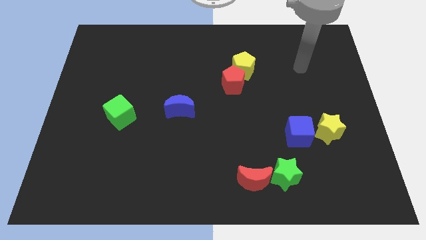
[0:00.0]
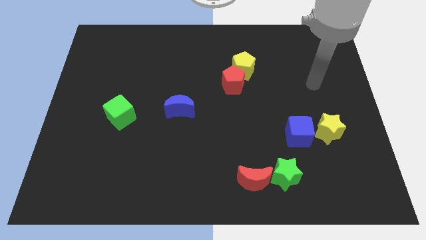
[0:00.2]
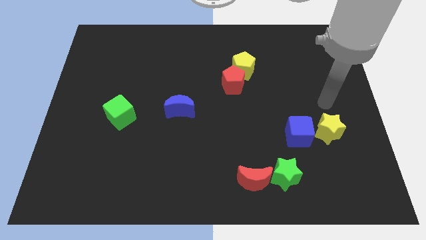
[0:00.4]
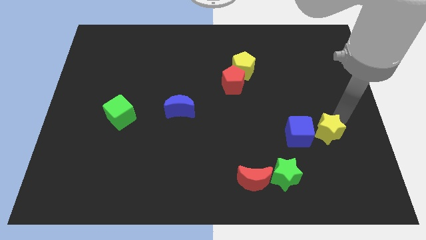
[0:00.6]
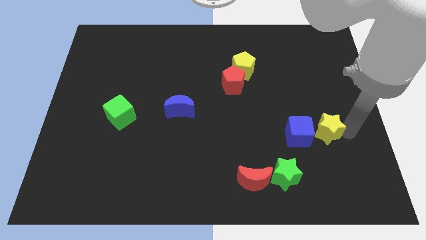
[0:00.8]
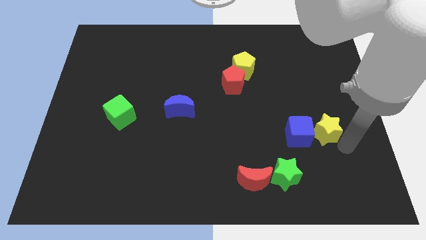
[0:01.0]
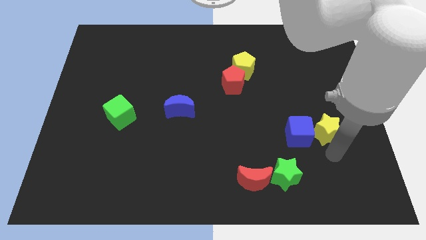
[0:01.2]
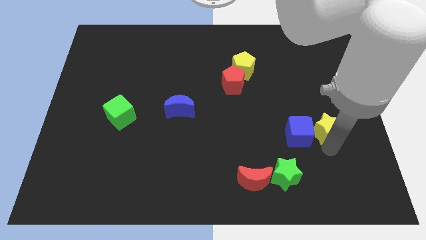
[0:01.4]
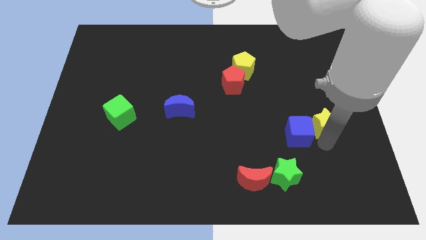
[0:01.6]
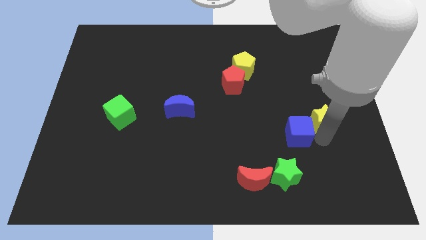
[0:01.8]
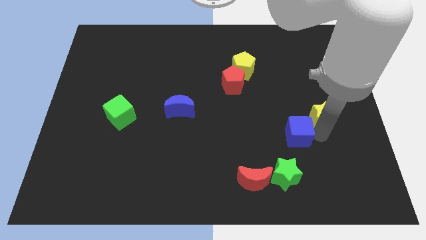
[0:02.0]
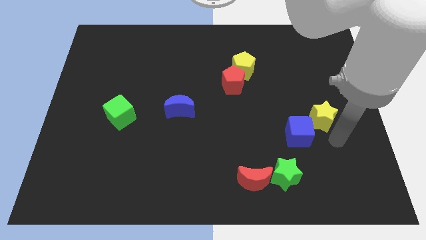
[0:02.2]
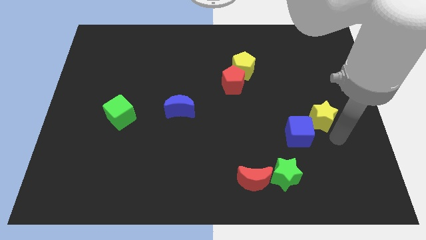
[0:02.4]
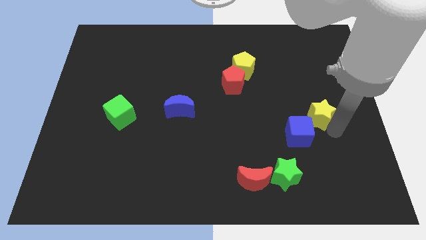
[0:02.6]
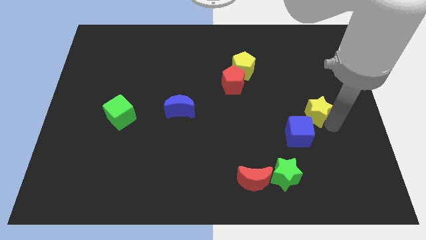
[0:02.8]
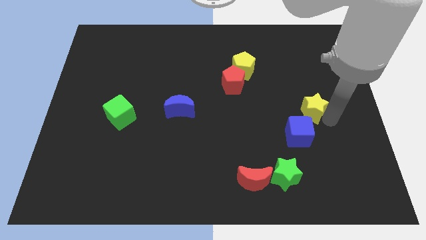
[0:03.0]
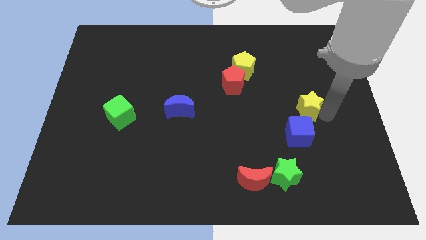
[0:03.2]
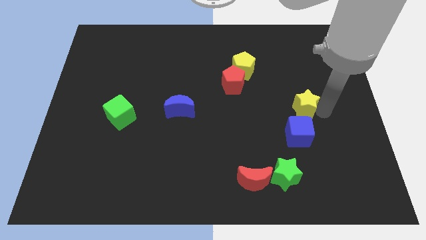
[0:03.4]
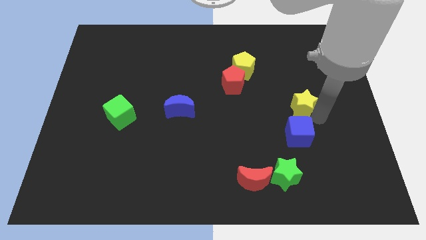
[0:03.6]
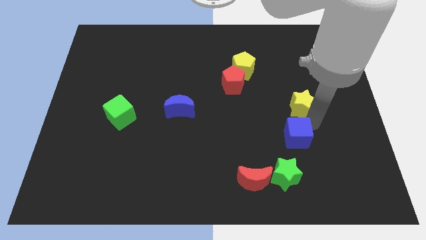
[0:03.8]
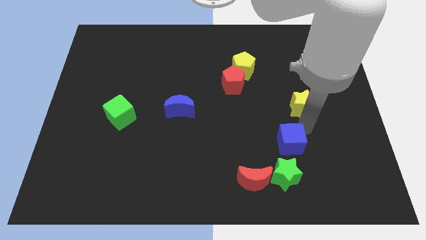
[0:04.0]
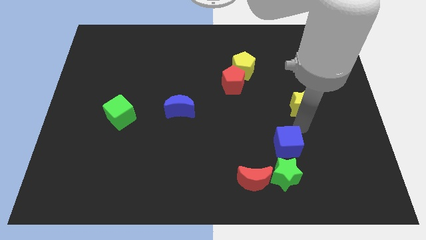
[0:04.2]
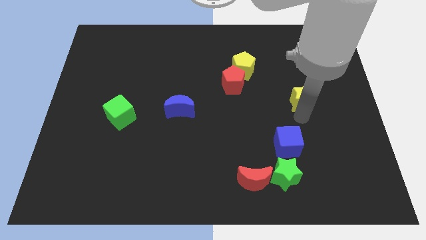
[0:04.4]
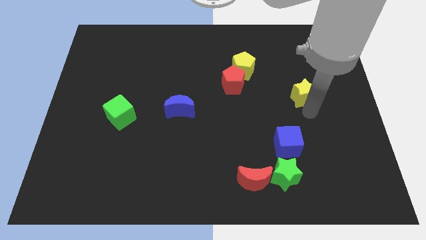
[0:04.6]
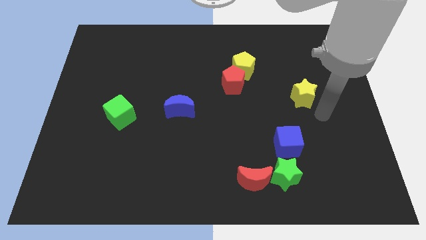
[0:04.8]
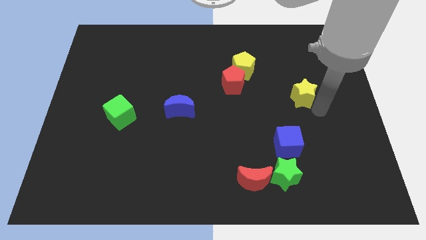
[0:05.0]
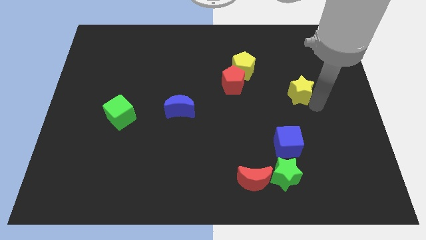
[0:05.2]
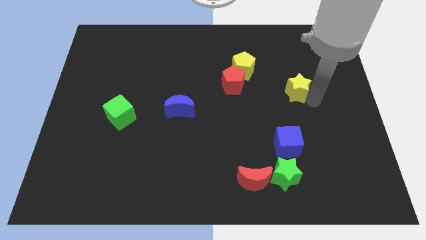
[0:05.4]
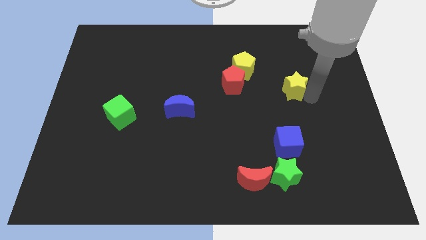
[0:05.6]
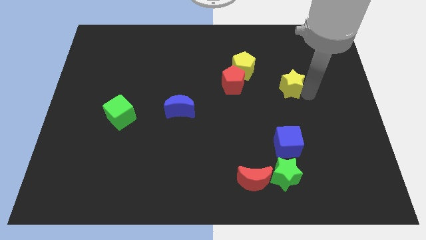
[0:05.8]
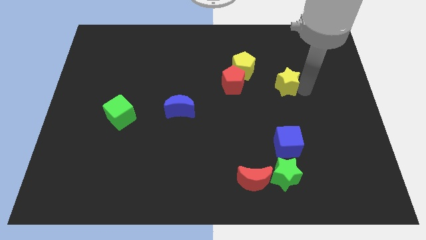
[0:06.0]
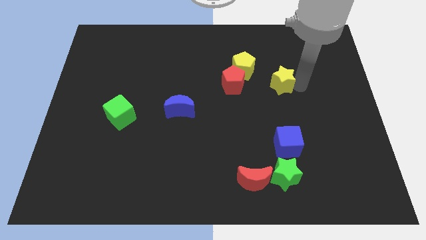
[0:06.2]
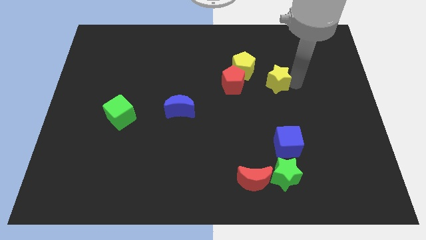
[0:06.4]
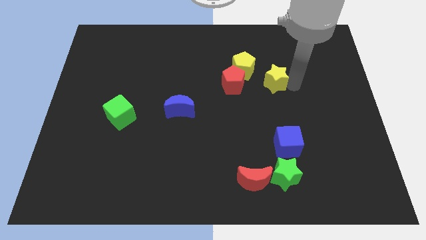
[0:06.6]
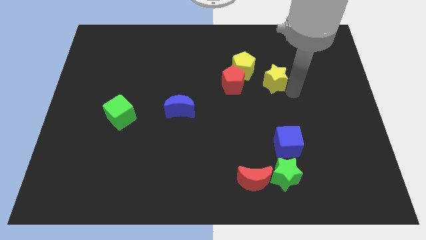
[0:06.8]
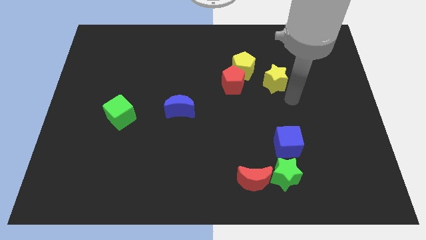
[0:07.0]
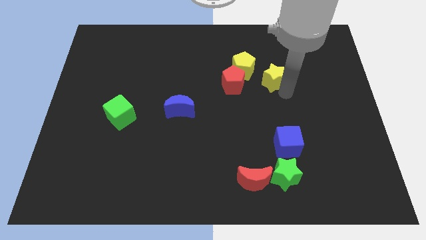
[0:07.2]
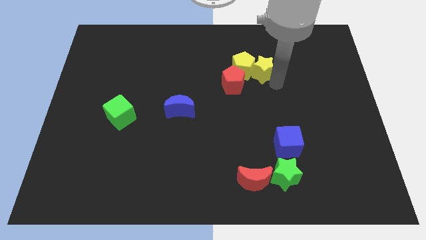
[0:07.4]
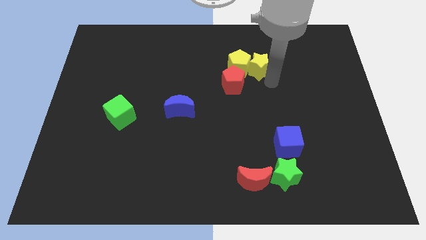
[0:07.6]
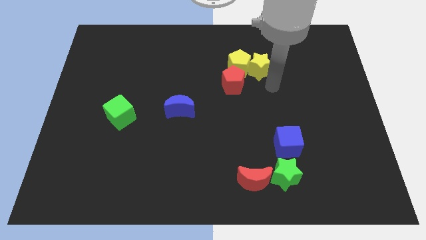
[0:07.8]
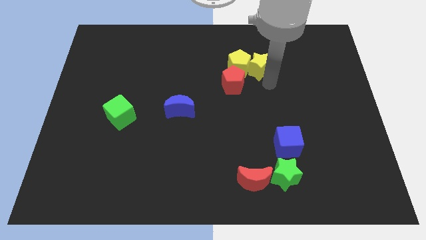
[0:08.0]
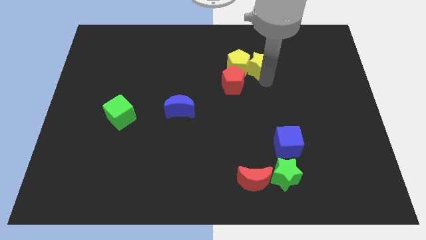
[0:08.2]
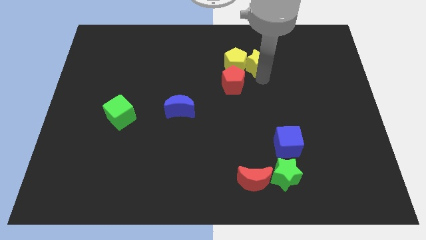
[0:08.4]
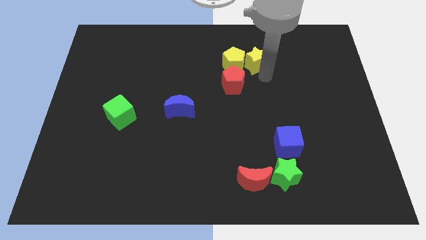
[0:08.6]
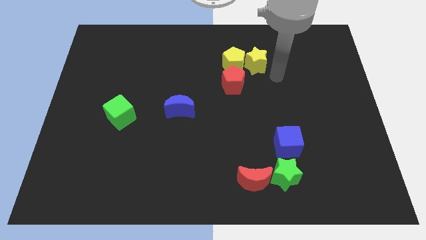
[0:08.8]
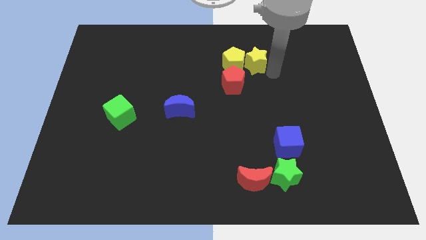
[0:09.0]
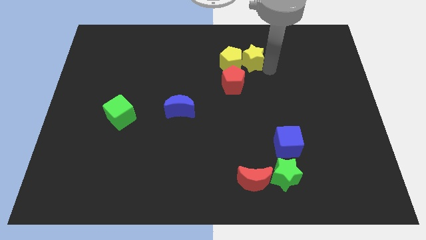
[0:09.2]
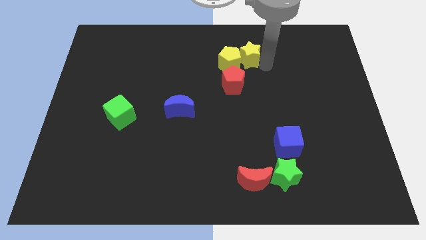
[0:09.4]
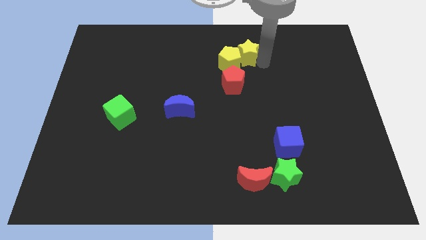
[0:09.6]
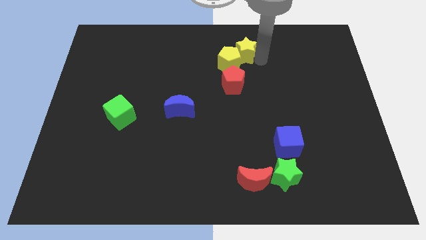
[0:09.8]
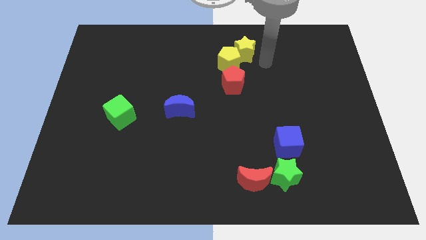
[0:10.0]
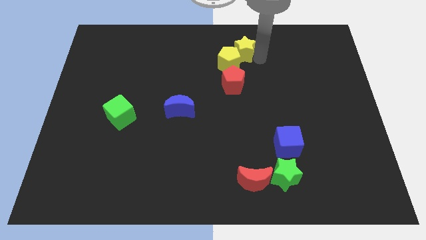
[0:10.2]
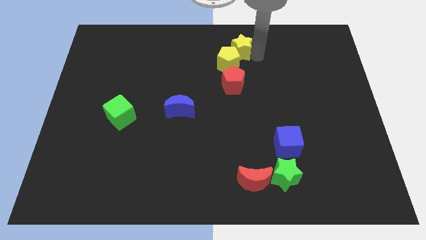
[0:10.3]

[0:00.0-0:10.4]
put the yellow star to the top

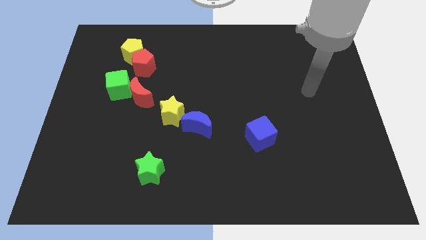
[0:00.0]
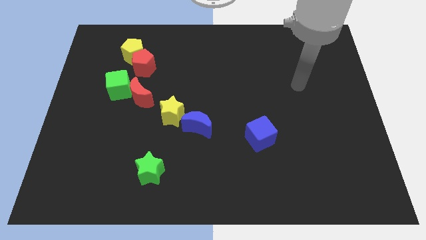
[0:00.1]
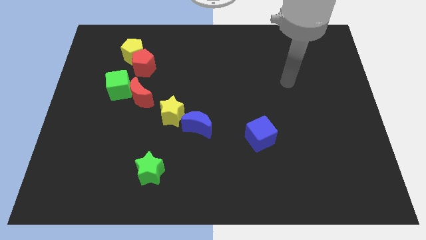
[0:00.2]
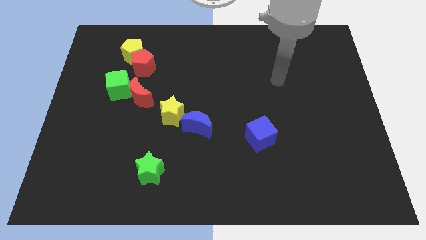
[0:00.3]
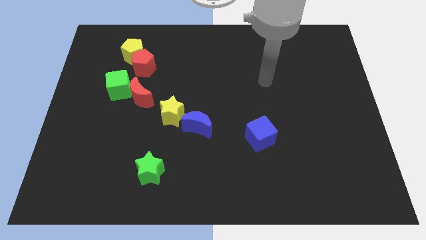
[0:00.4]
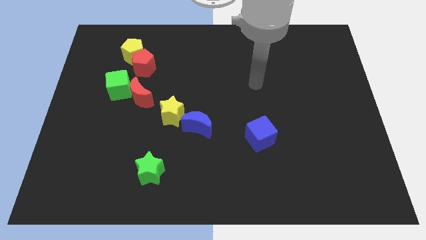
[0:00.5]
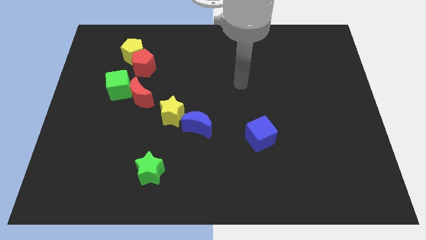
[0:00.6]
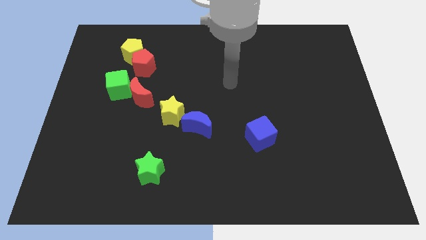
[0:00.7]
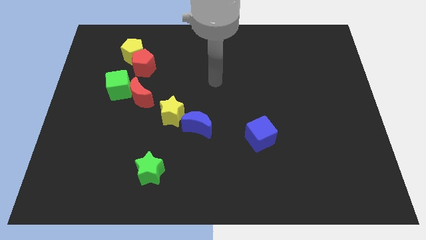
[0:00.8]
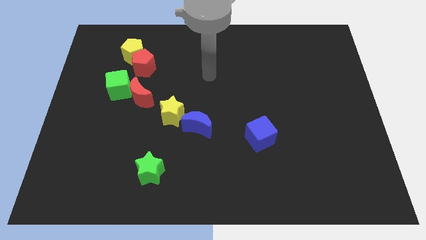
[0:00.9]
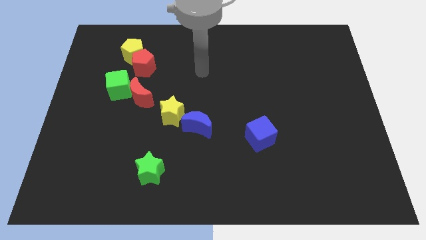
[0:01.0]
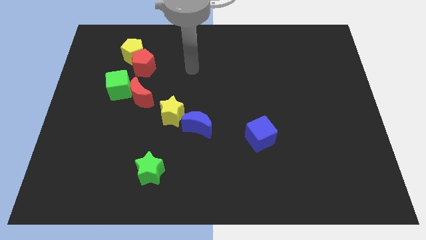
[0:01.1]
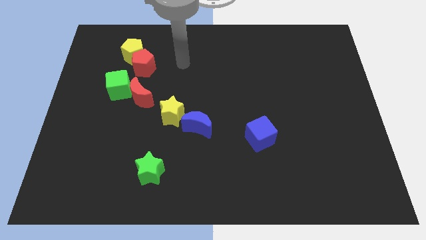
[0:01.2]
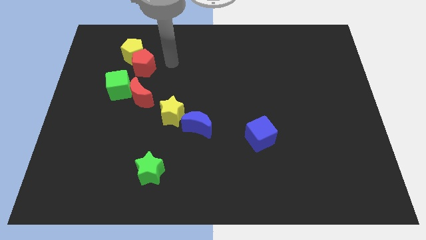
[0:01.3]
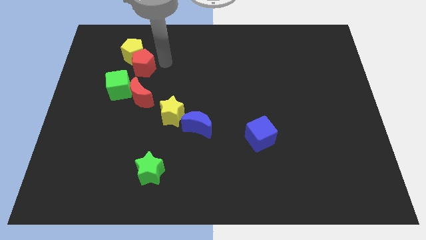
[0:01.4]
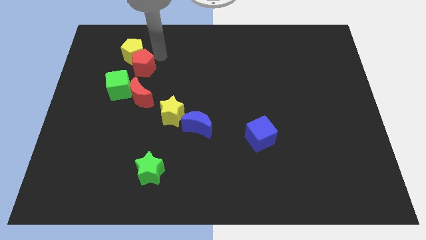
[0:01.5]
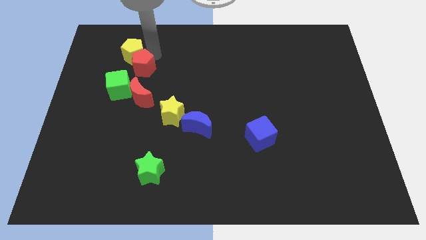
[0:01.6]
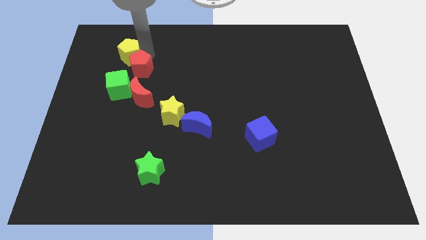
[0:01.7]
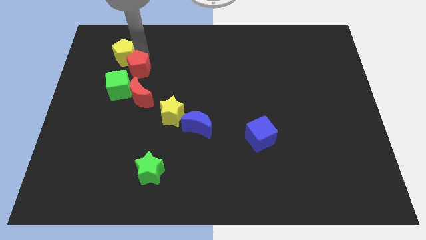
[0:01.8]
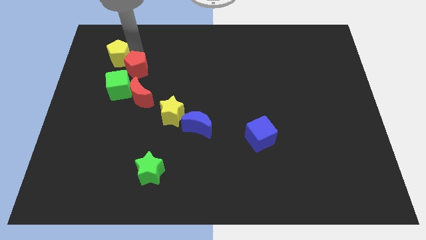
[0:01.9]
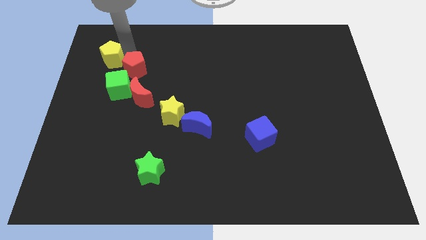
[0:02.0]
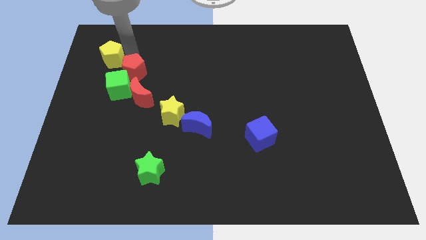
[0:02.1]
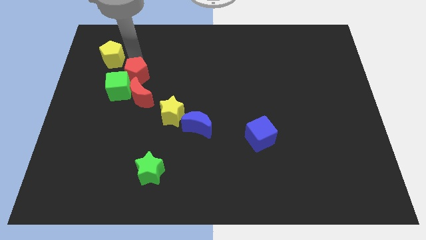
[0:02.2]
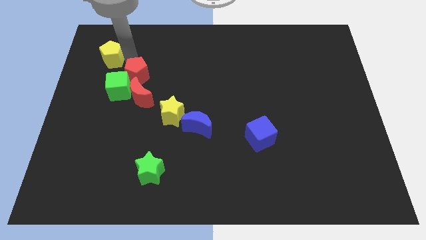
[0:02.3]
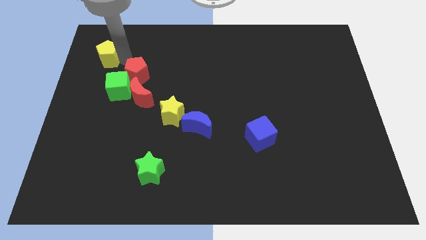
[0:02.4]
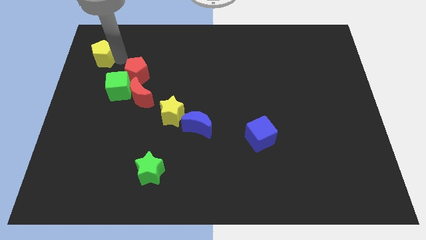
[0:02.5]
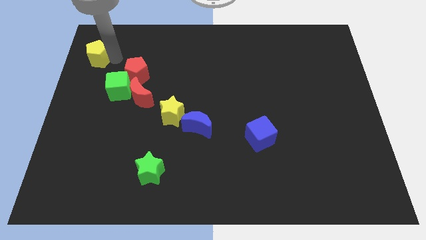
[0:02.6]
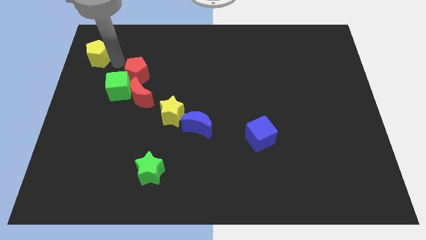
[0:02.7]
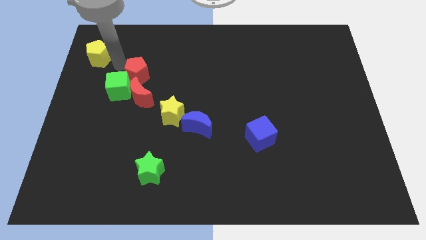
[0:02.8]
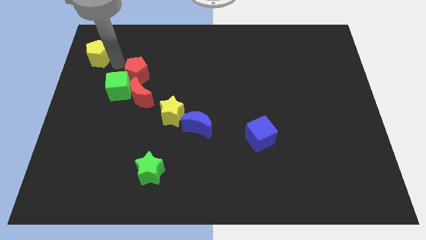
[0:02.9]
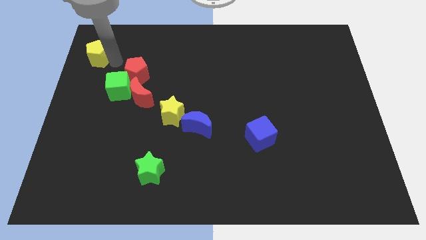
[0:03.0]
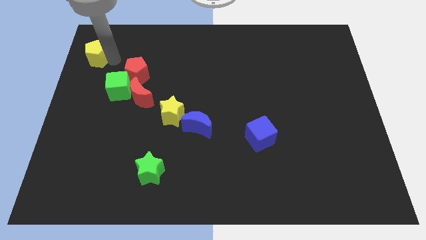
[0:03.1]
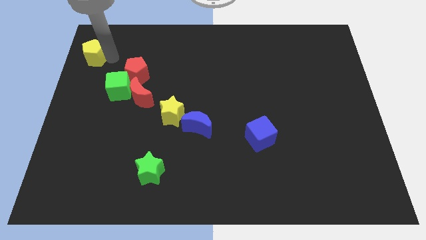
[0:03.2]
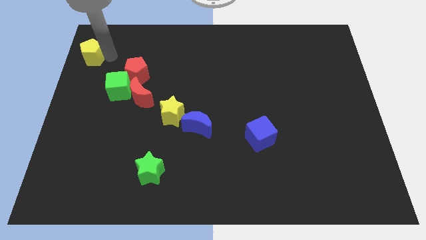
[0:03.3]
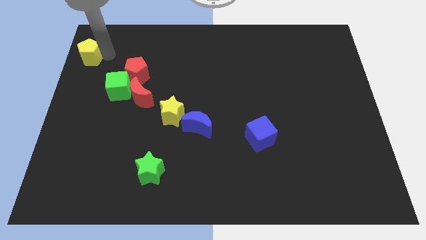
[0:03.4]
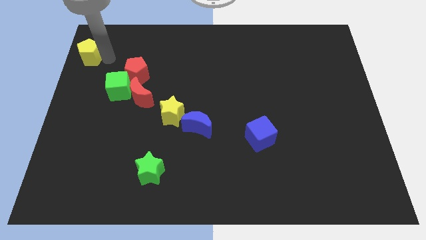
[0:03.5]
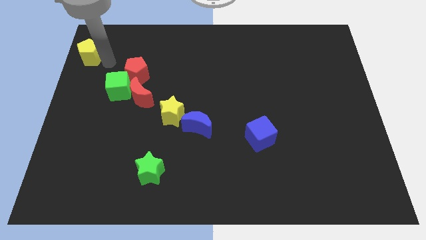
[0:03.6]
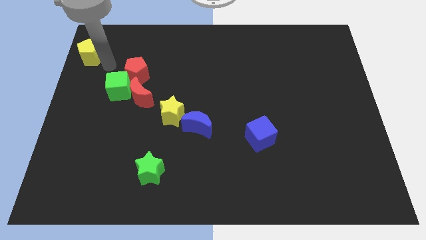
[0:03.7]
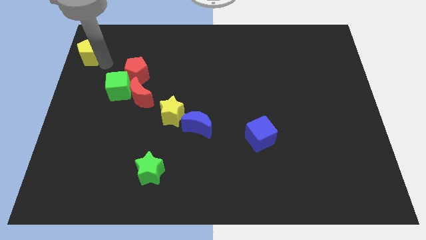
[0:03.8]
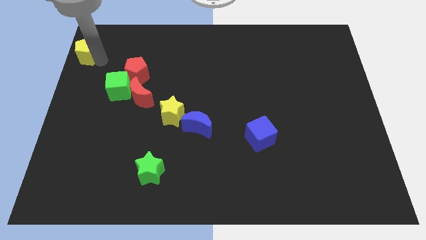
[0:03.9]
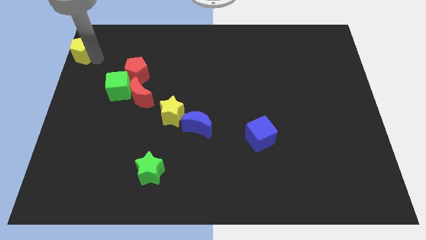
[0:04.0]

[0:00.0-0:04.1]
put the yellow pentagon to the top left
